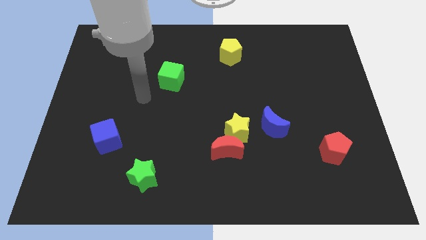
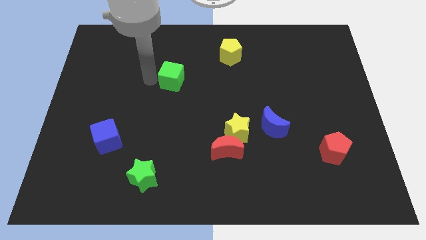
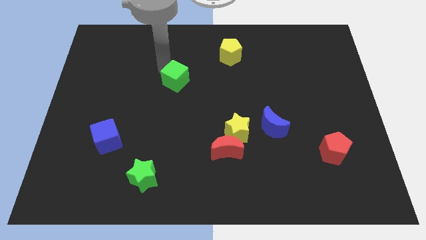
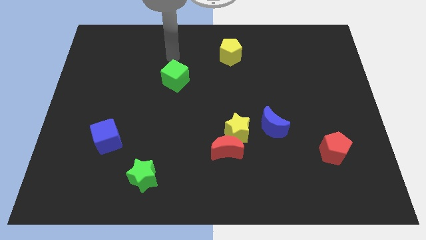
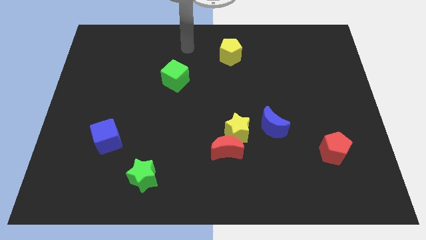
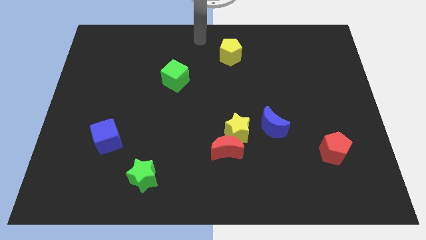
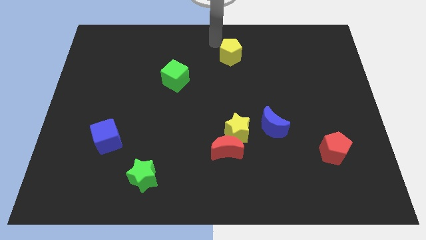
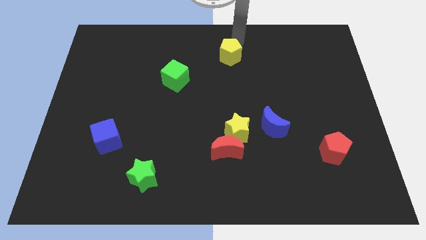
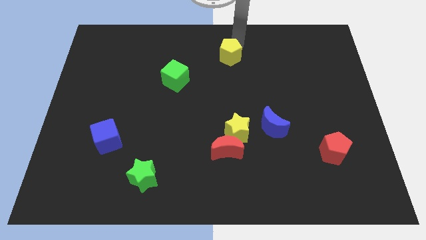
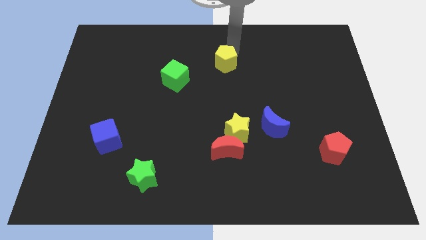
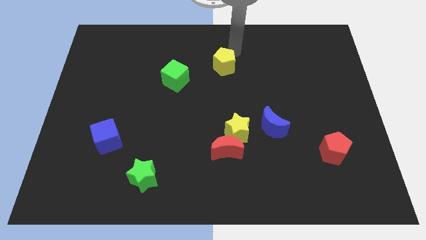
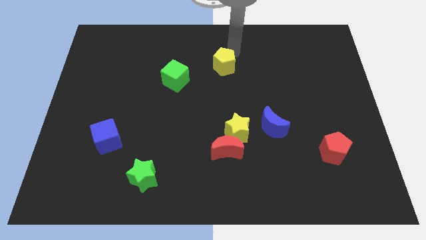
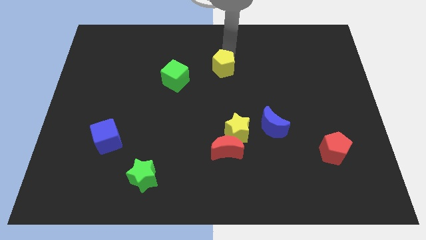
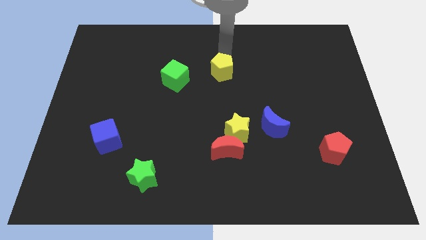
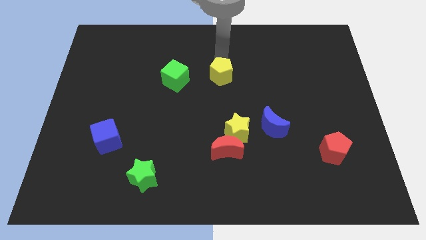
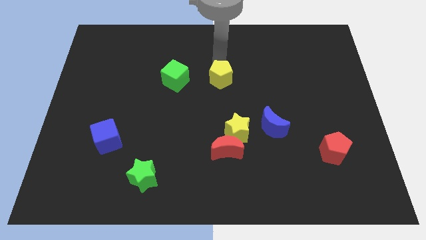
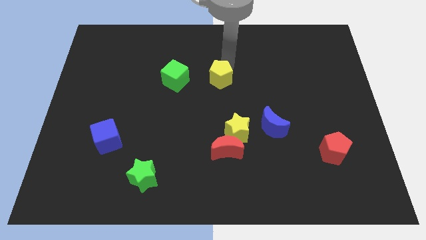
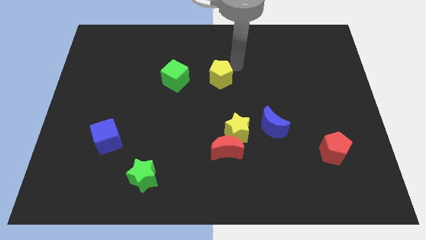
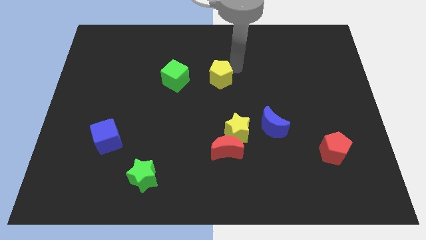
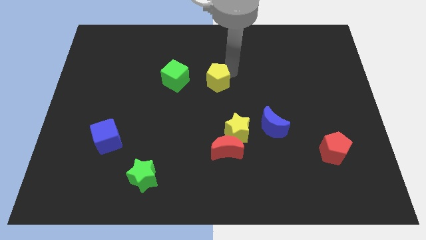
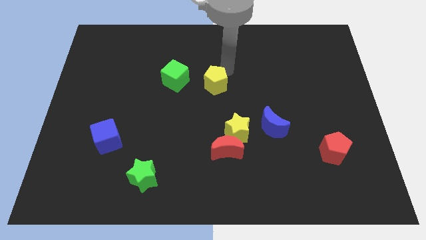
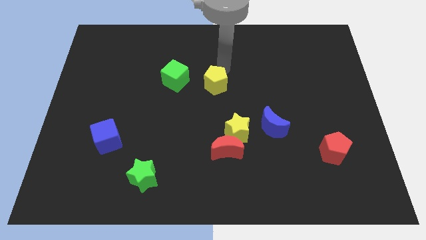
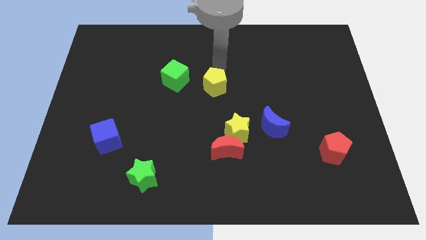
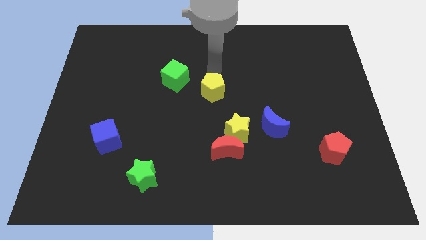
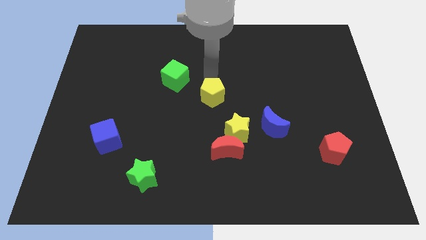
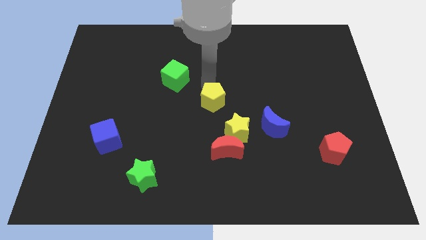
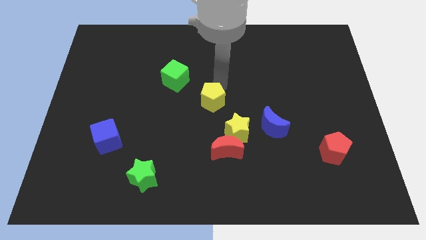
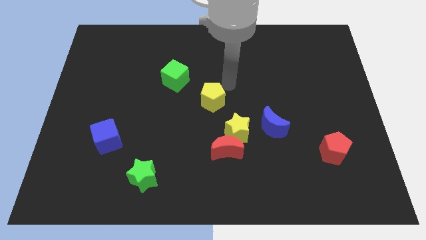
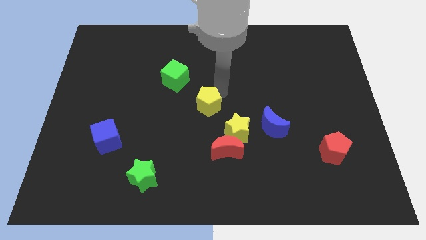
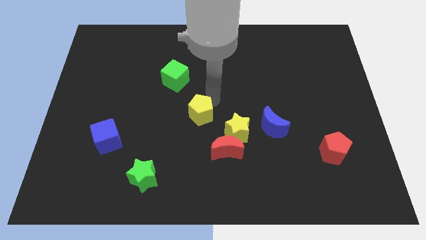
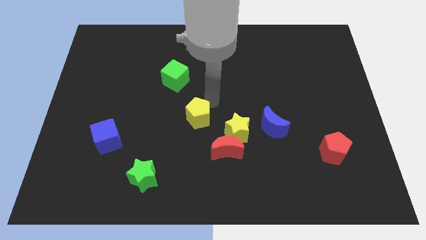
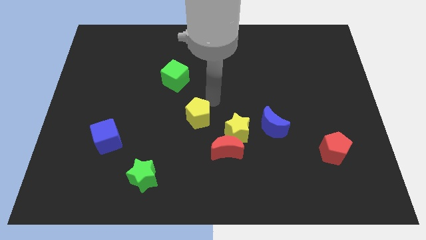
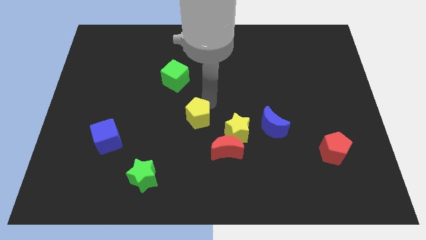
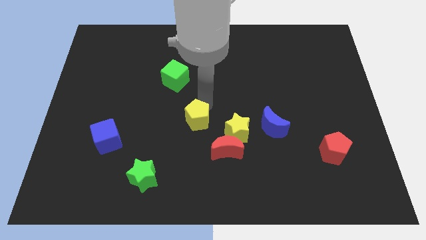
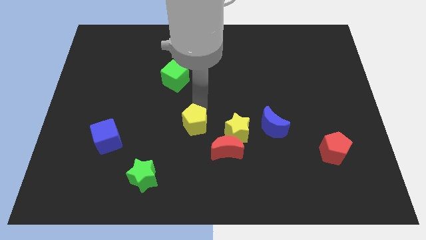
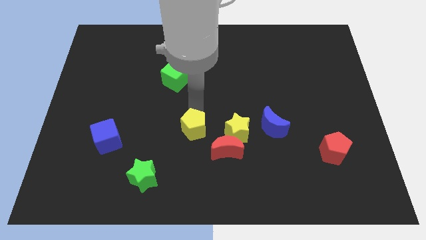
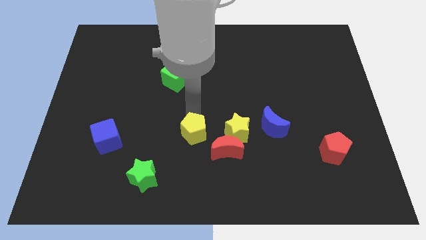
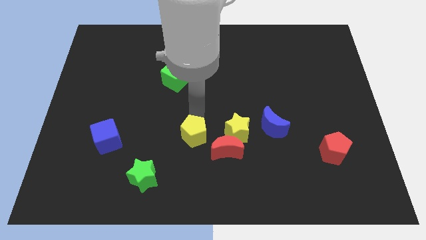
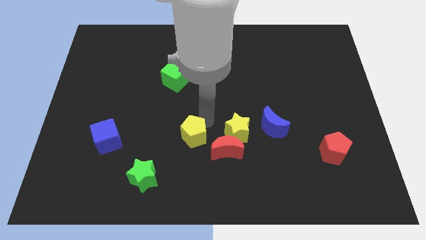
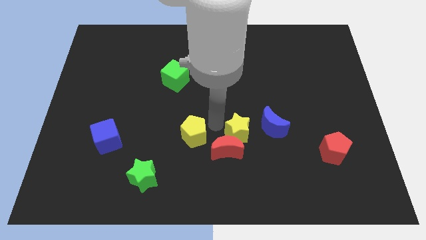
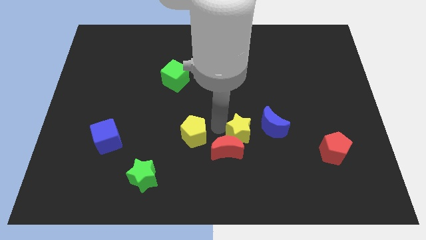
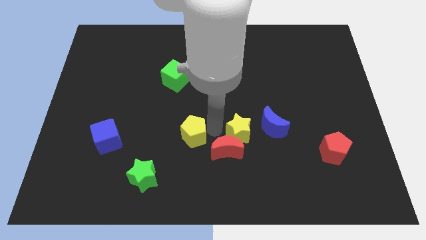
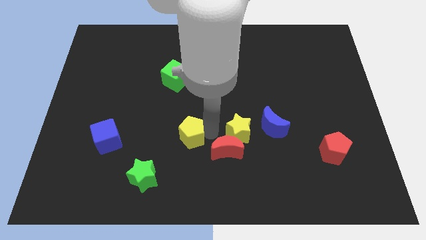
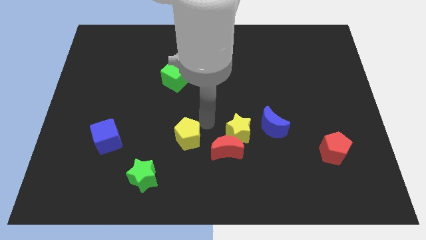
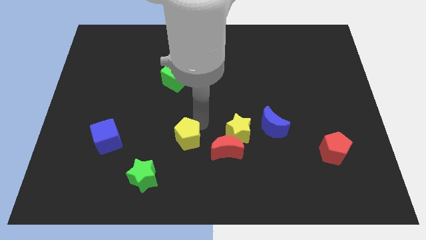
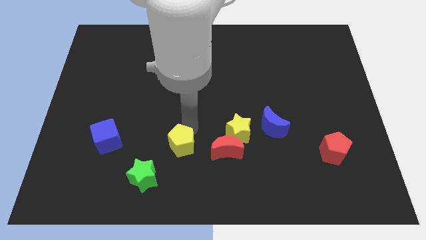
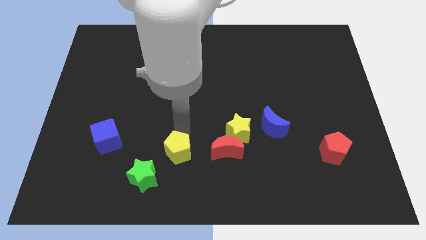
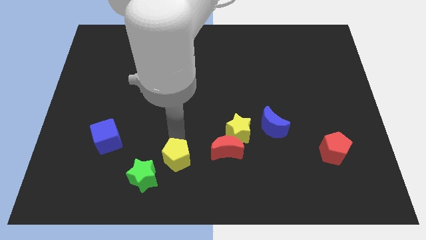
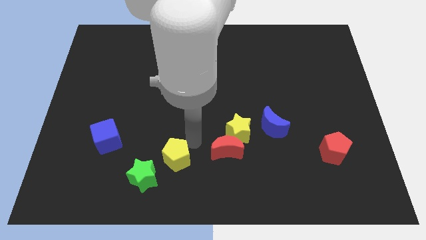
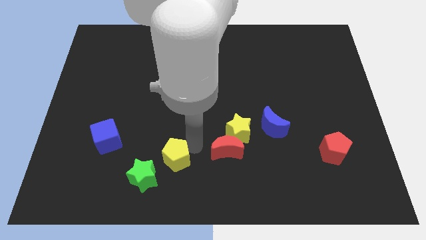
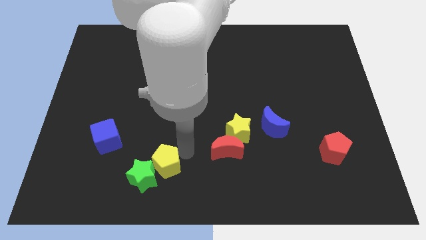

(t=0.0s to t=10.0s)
move the yellow pentagon towards the green star

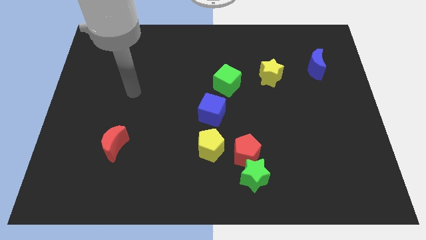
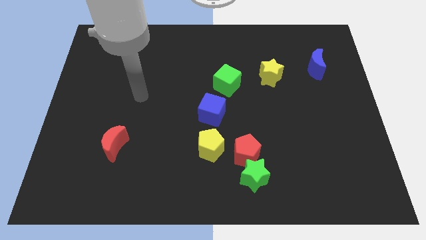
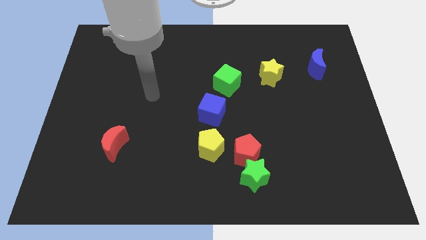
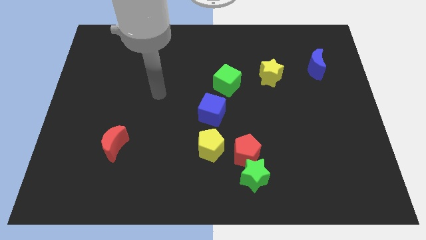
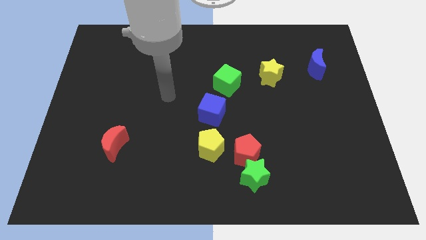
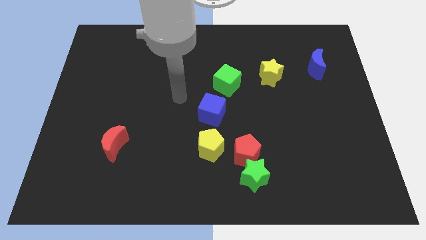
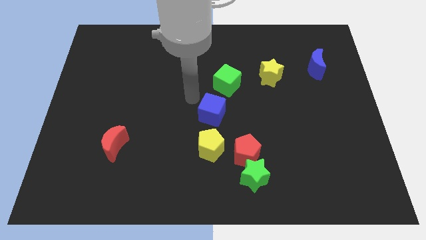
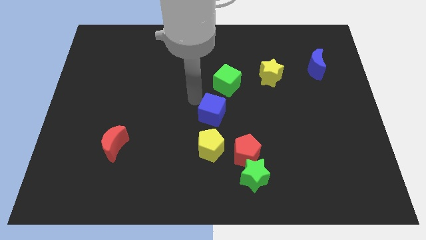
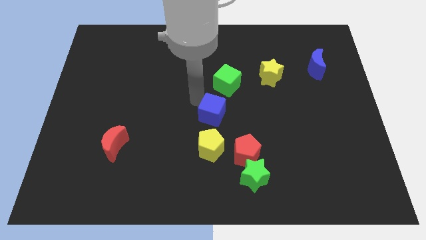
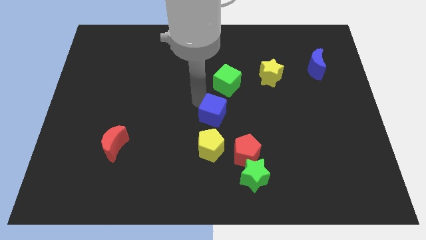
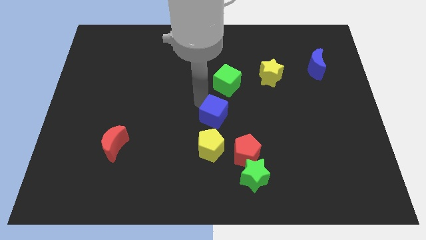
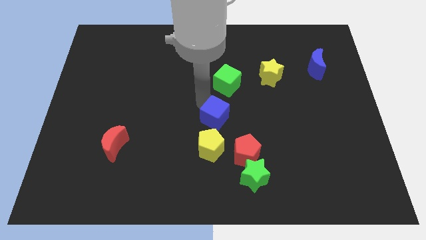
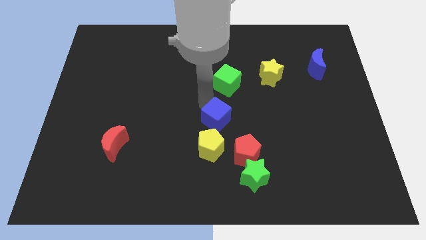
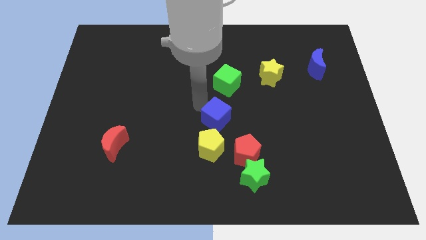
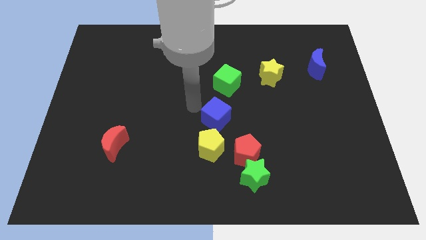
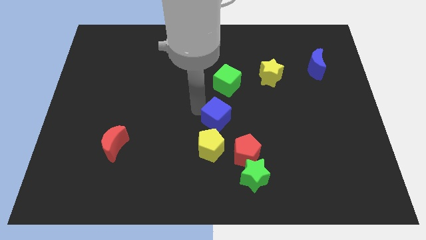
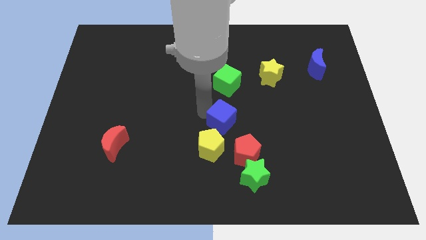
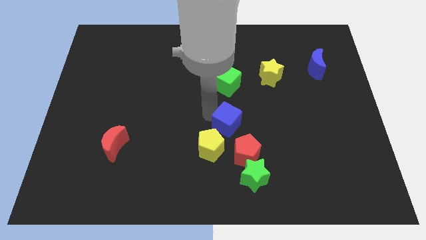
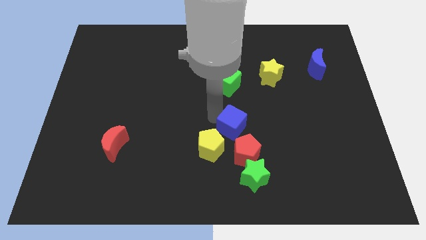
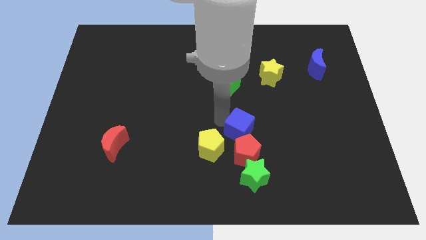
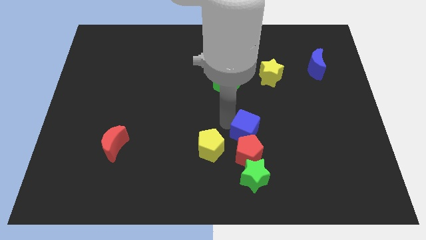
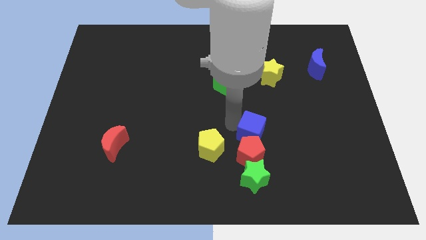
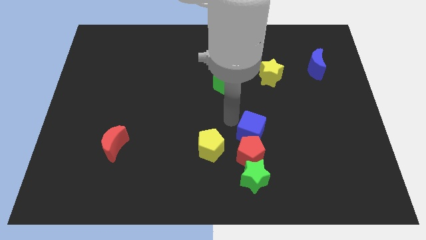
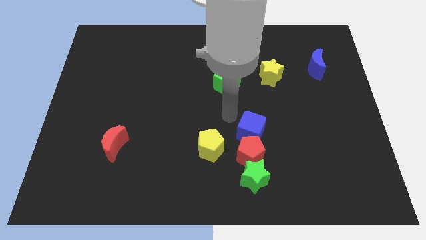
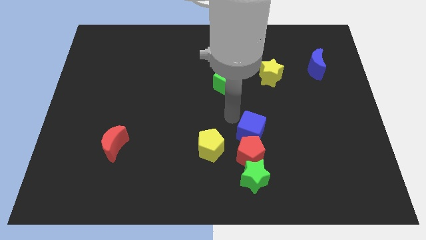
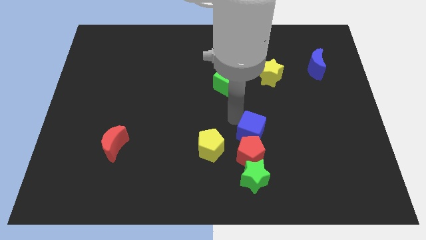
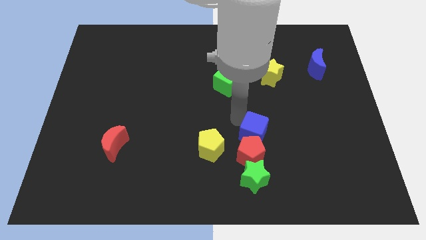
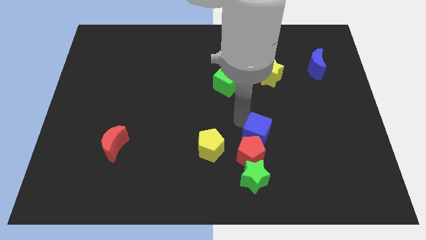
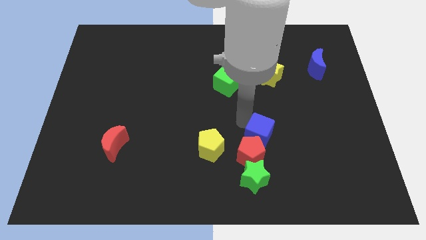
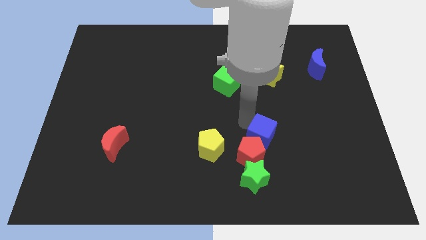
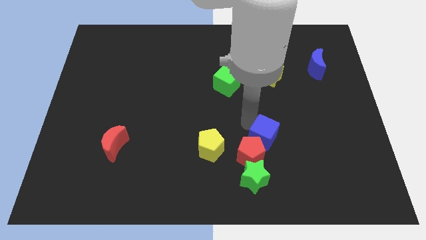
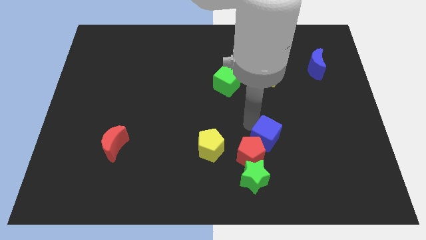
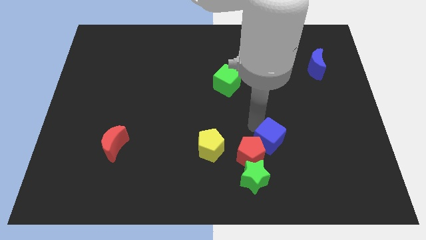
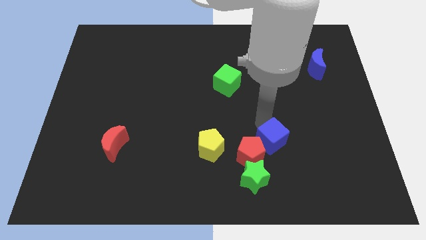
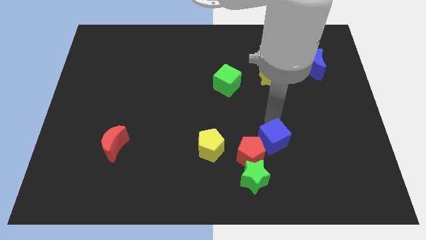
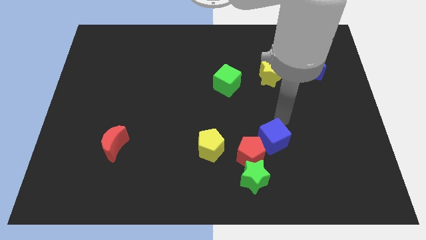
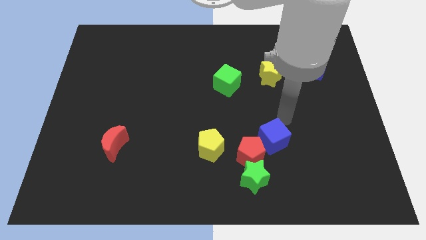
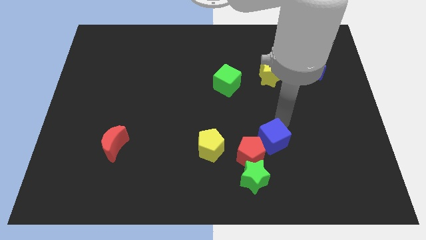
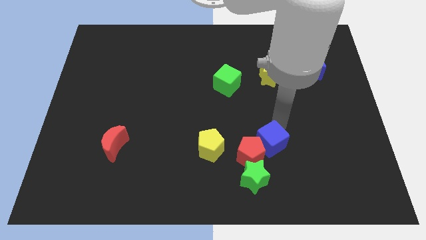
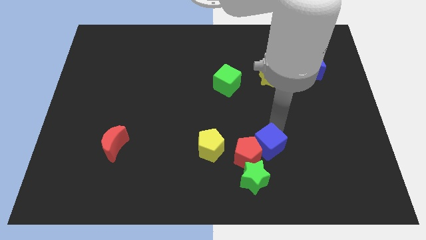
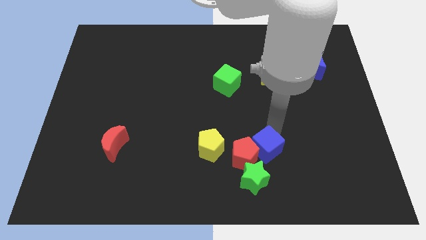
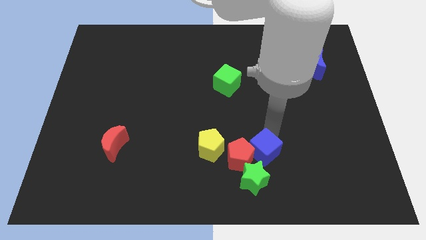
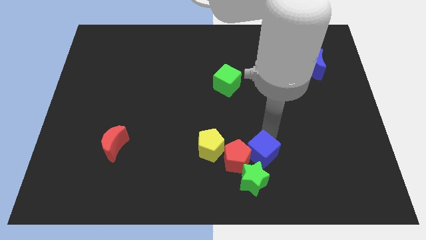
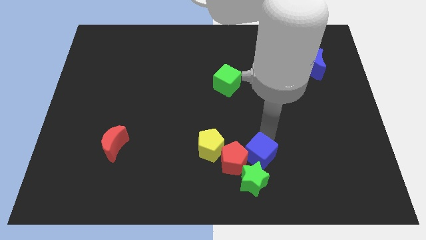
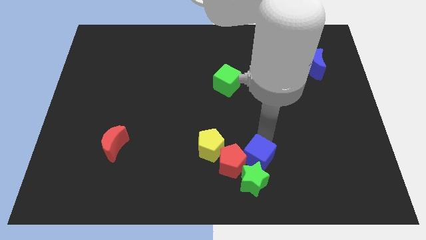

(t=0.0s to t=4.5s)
push the blue cube towards the green star
